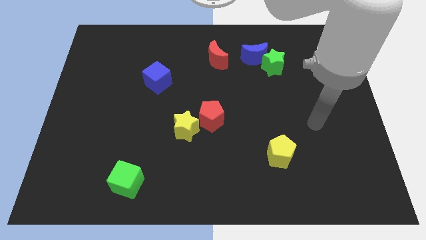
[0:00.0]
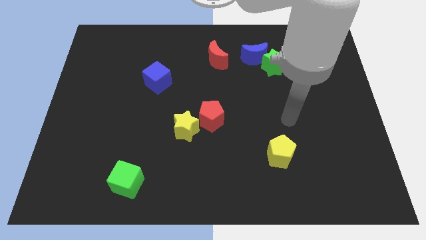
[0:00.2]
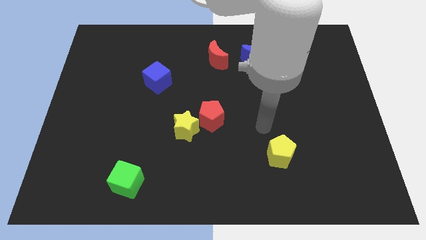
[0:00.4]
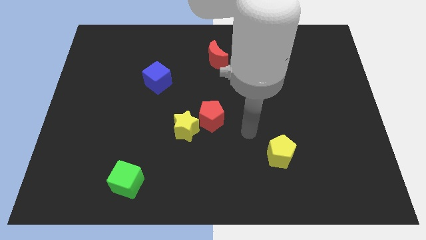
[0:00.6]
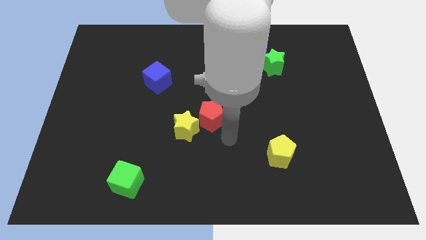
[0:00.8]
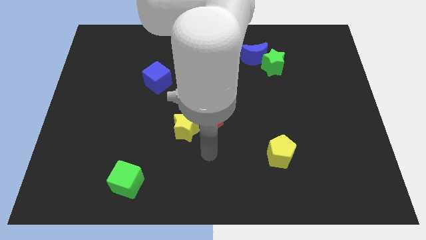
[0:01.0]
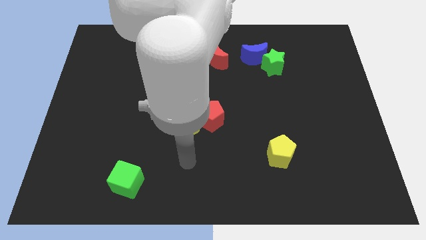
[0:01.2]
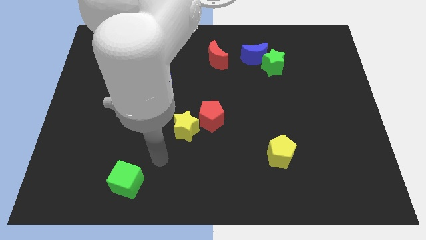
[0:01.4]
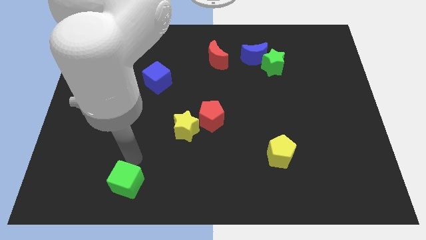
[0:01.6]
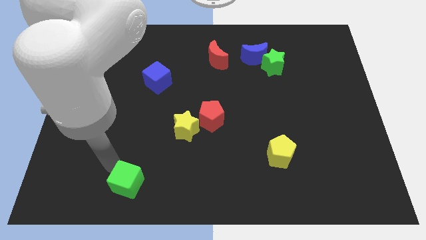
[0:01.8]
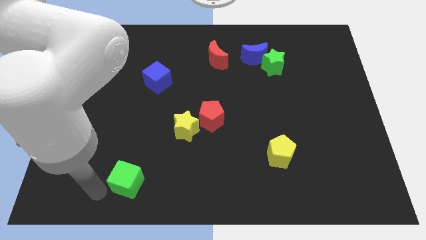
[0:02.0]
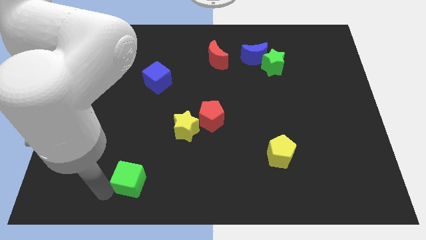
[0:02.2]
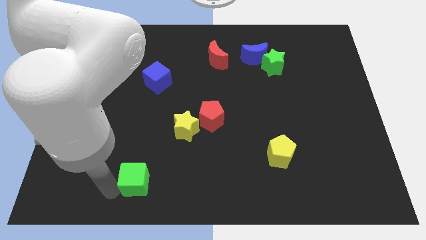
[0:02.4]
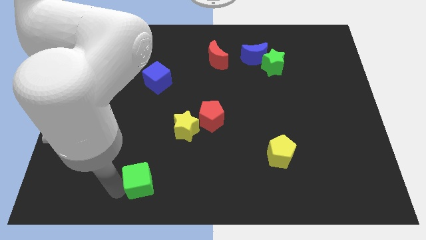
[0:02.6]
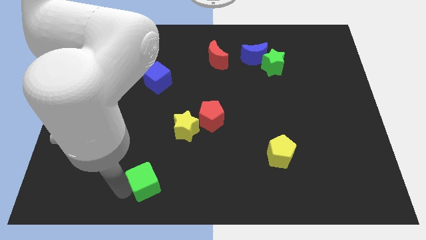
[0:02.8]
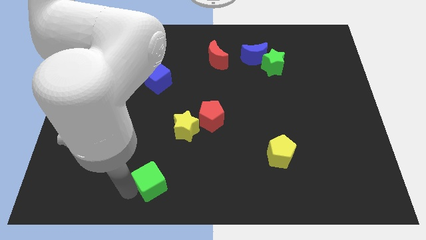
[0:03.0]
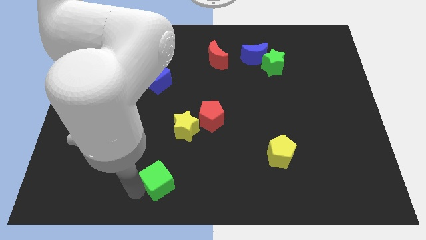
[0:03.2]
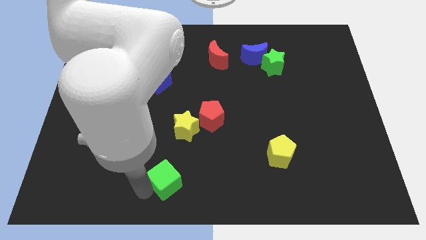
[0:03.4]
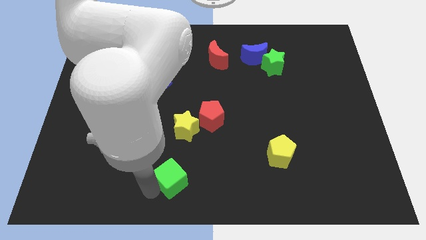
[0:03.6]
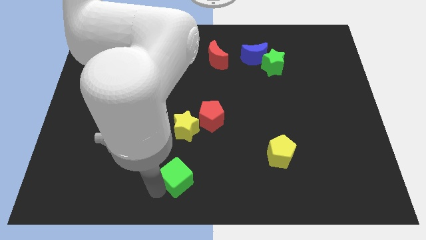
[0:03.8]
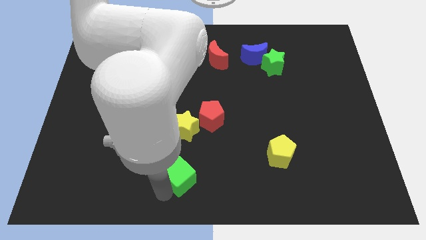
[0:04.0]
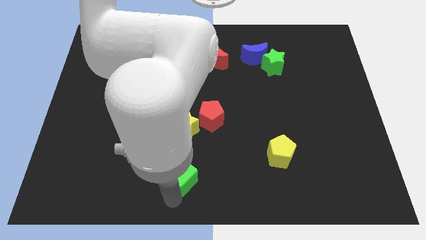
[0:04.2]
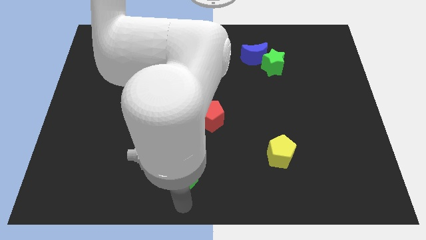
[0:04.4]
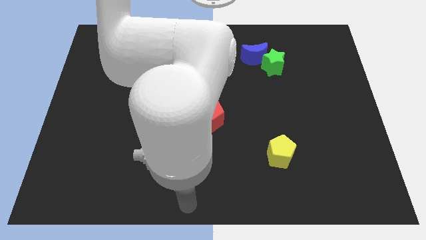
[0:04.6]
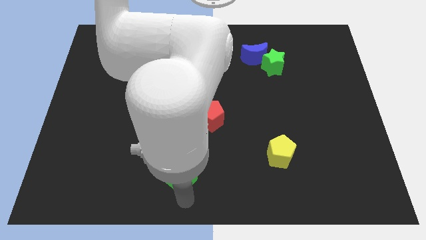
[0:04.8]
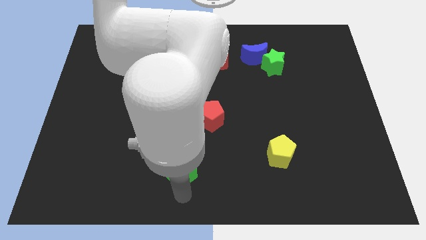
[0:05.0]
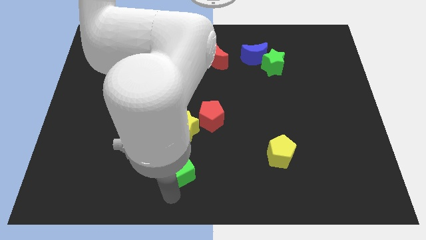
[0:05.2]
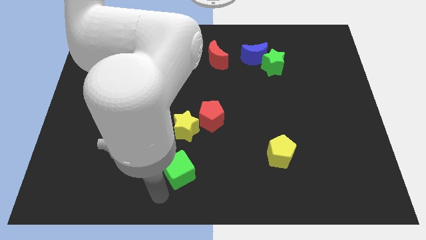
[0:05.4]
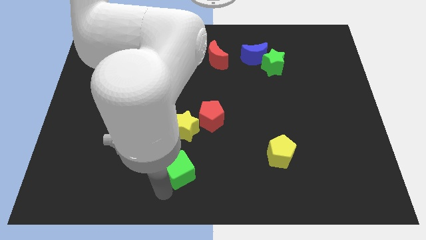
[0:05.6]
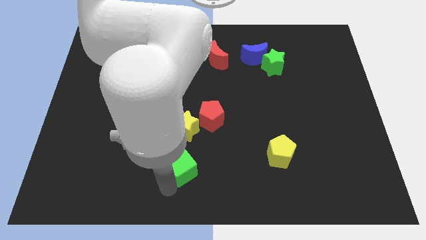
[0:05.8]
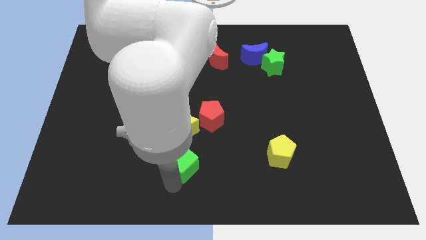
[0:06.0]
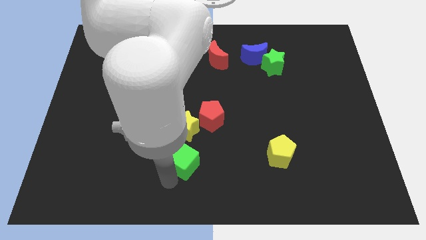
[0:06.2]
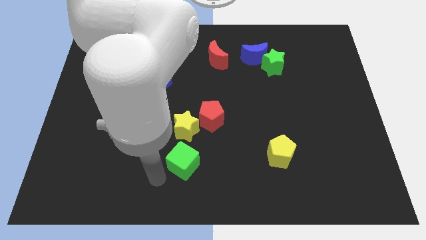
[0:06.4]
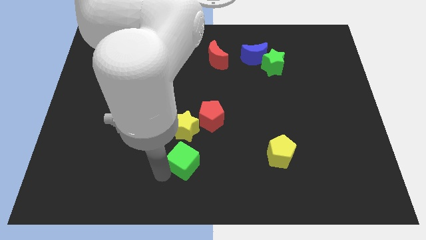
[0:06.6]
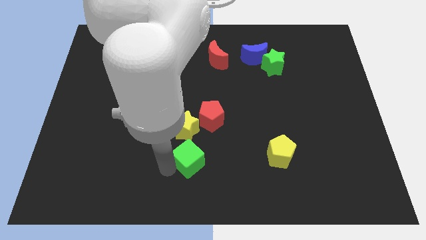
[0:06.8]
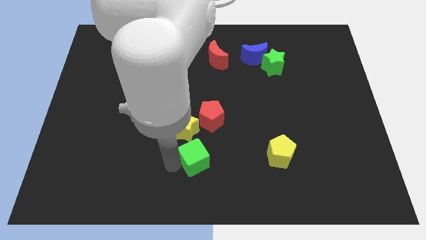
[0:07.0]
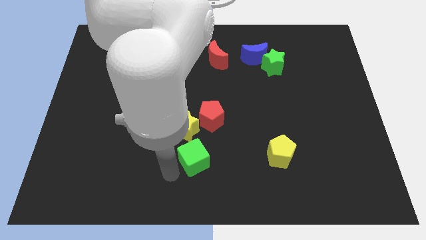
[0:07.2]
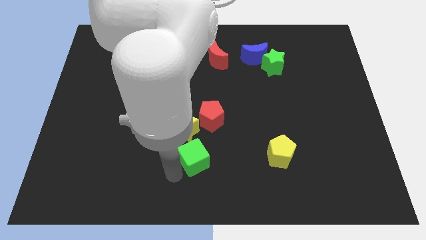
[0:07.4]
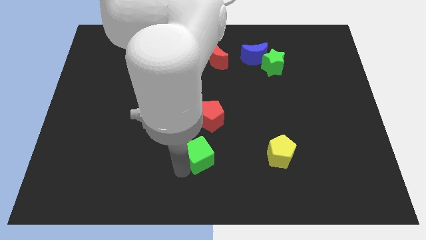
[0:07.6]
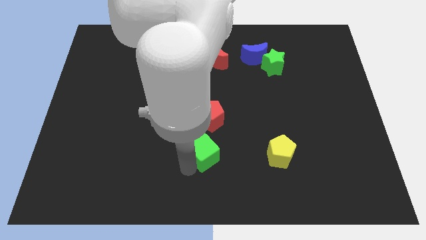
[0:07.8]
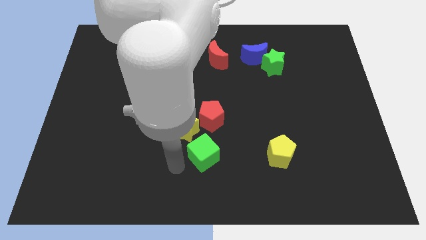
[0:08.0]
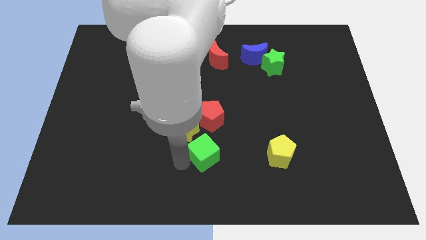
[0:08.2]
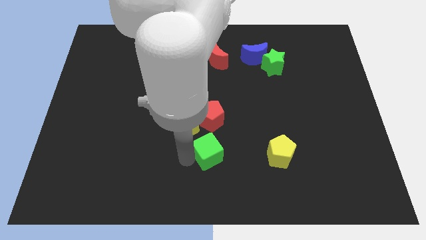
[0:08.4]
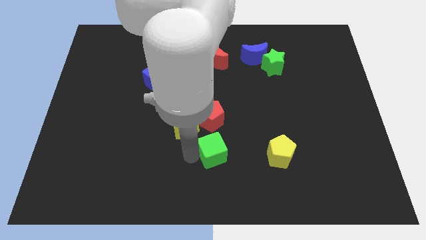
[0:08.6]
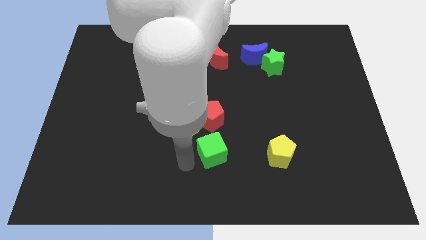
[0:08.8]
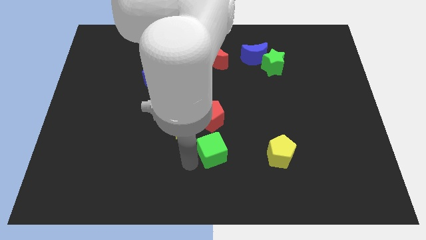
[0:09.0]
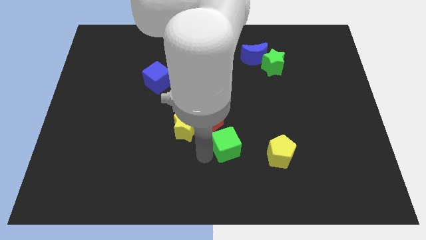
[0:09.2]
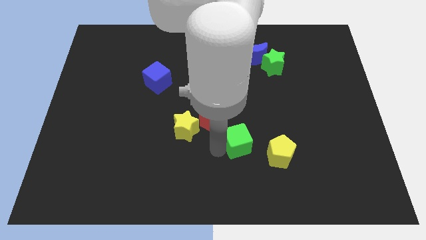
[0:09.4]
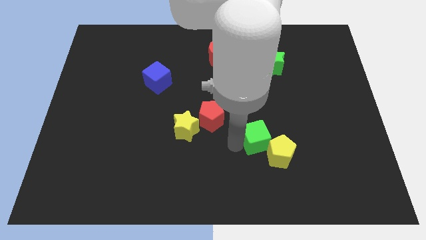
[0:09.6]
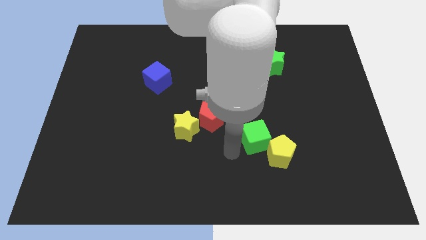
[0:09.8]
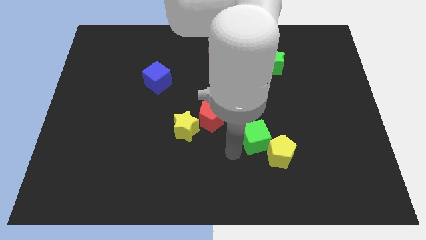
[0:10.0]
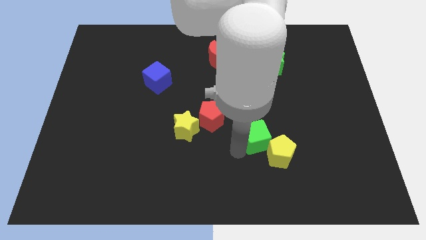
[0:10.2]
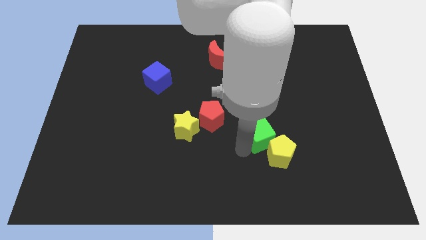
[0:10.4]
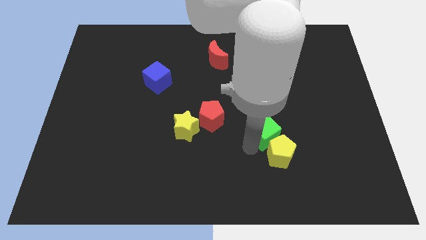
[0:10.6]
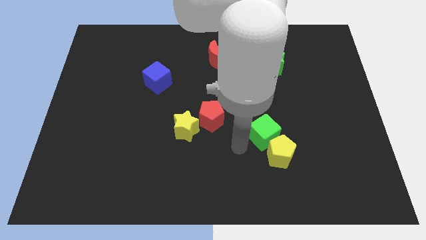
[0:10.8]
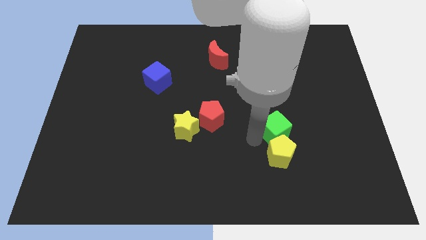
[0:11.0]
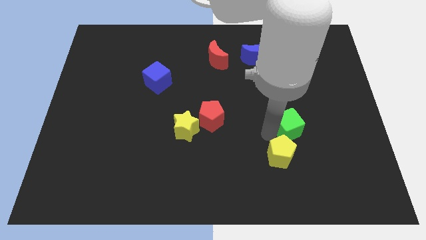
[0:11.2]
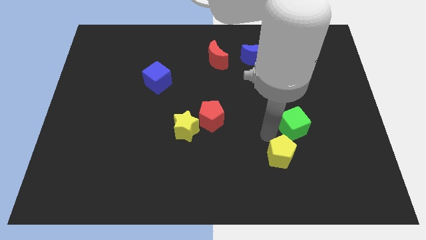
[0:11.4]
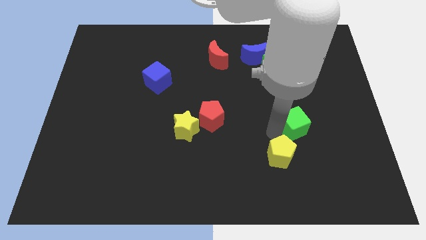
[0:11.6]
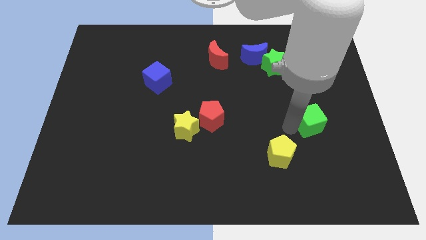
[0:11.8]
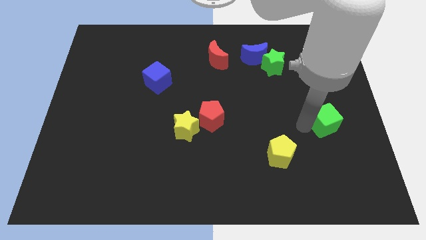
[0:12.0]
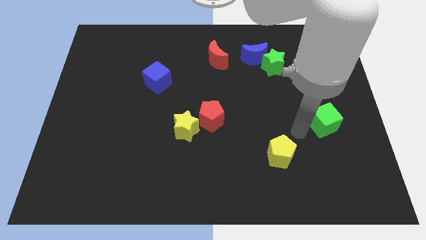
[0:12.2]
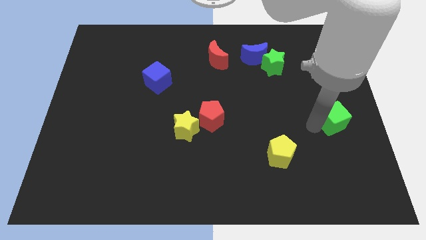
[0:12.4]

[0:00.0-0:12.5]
slide the green cube to the right side
